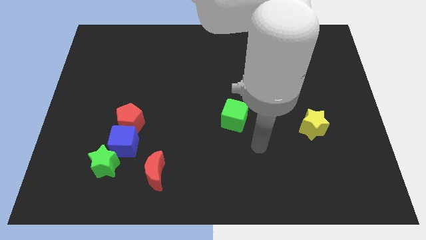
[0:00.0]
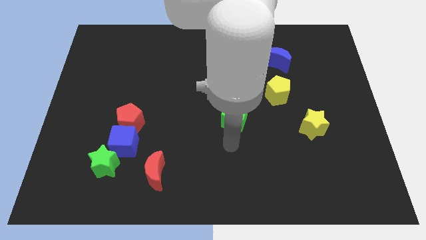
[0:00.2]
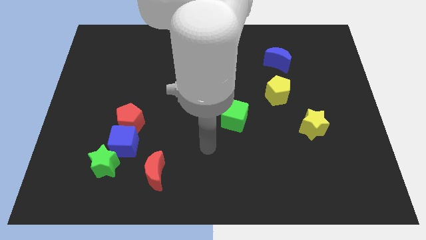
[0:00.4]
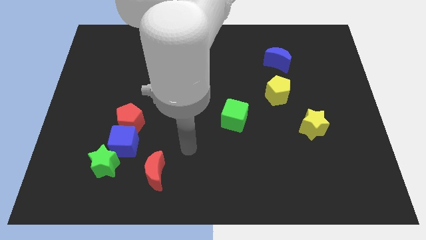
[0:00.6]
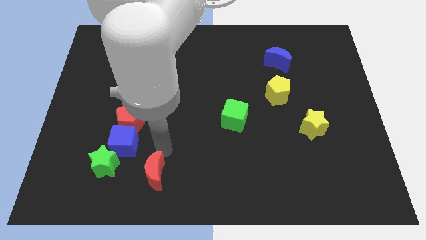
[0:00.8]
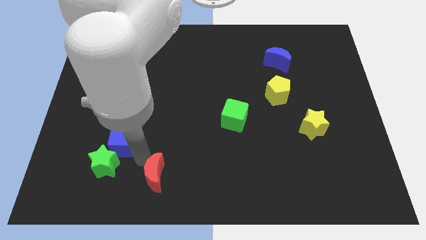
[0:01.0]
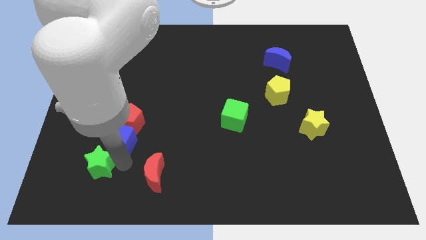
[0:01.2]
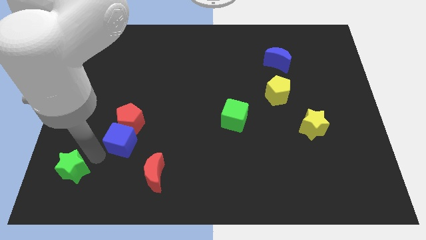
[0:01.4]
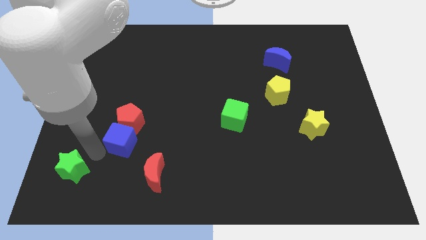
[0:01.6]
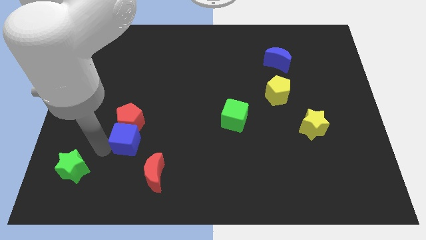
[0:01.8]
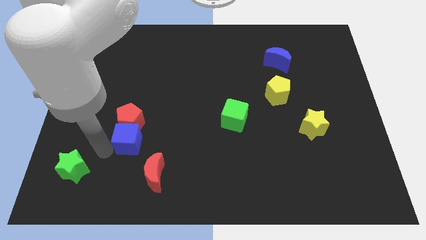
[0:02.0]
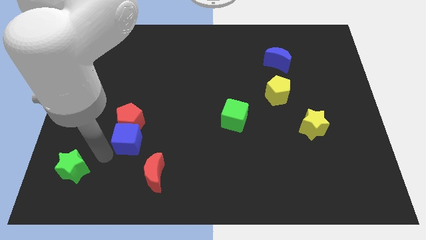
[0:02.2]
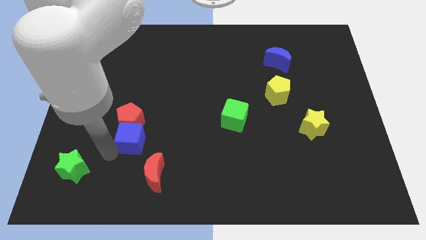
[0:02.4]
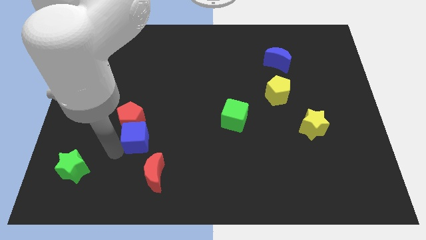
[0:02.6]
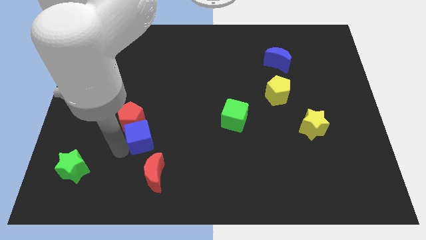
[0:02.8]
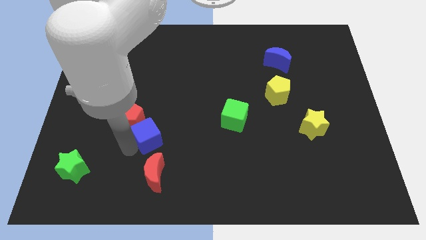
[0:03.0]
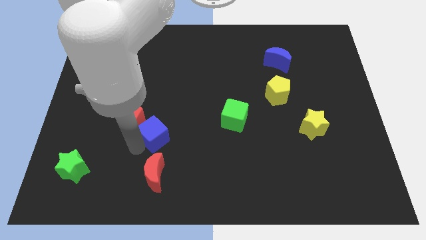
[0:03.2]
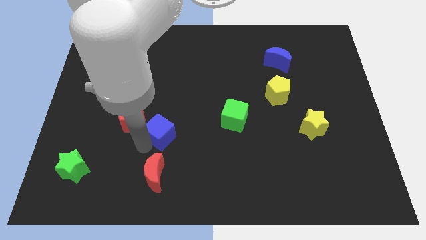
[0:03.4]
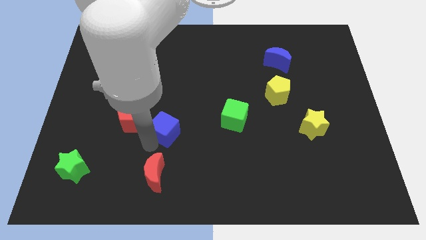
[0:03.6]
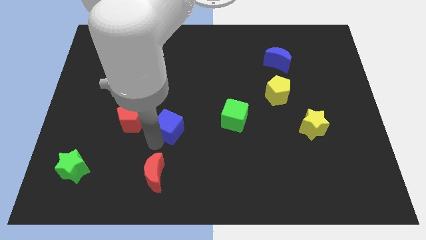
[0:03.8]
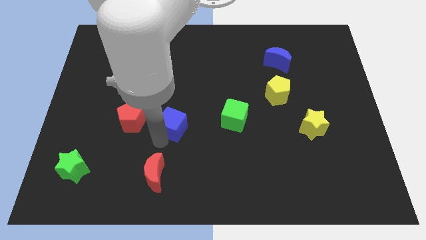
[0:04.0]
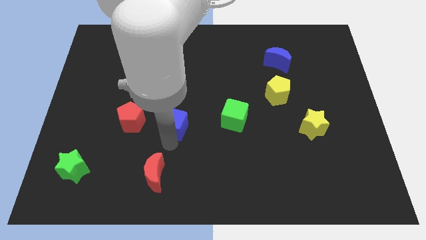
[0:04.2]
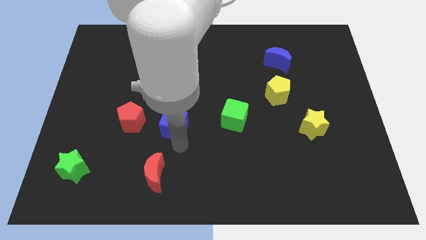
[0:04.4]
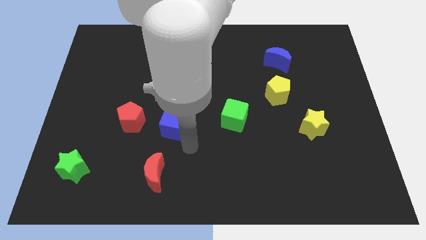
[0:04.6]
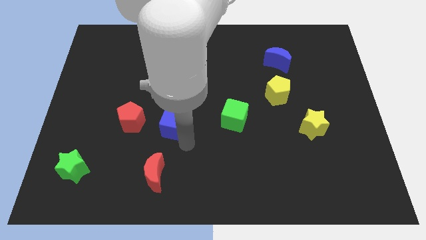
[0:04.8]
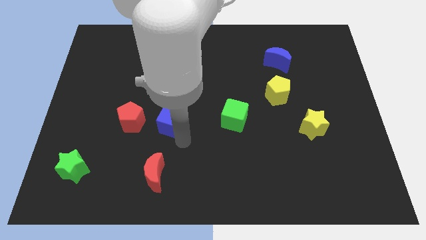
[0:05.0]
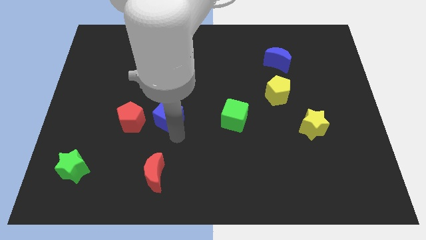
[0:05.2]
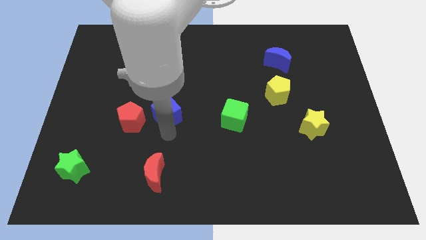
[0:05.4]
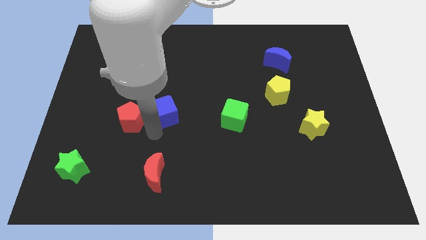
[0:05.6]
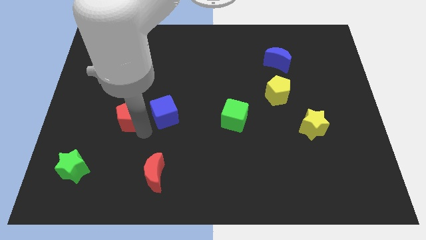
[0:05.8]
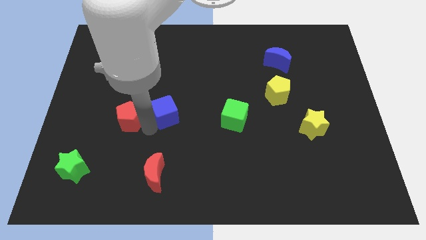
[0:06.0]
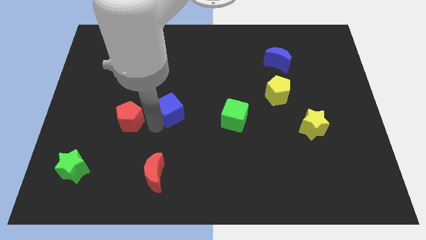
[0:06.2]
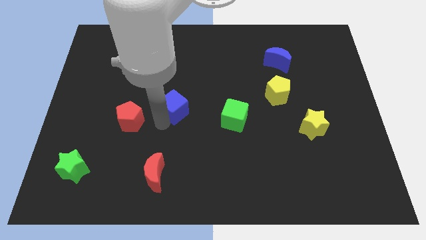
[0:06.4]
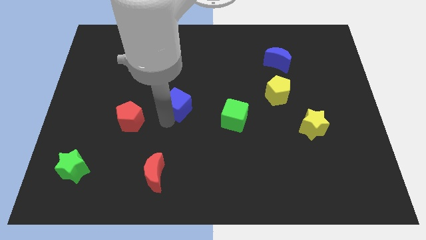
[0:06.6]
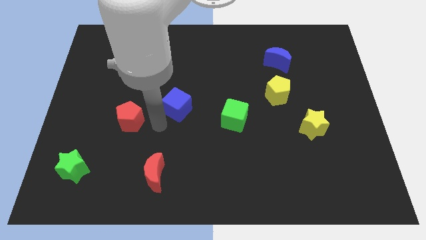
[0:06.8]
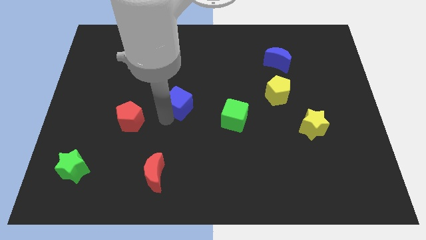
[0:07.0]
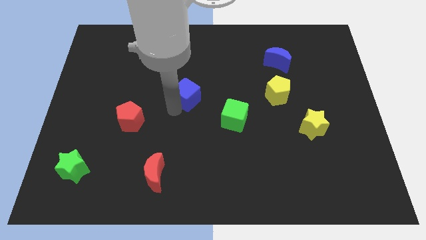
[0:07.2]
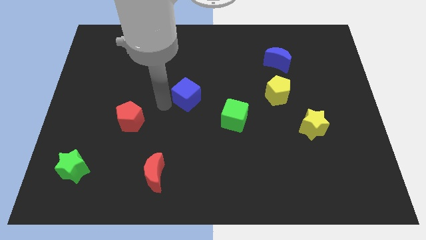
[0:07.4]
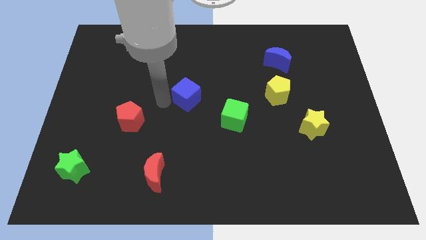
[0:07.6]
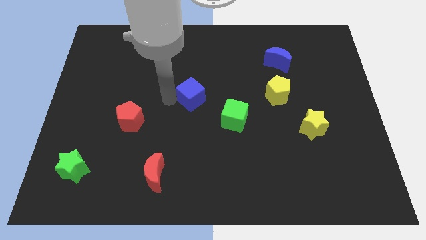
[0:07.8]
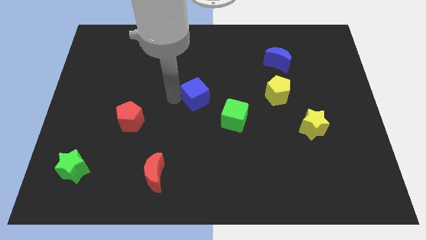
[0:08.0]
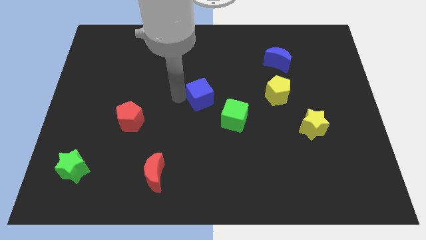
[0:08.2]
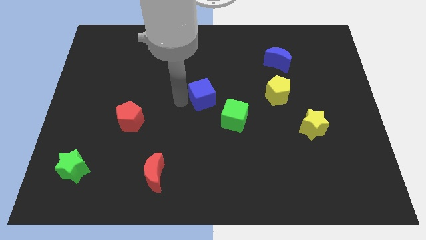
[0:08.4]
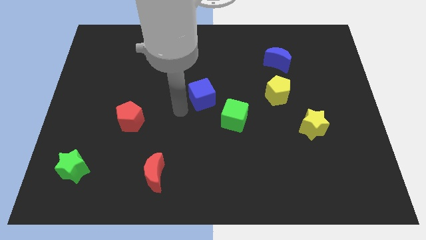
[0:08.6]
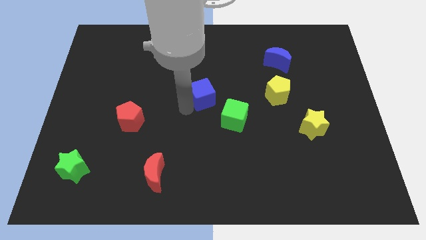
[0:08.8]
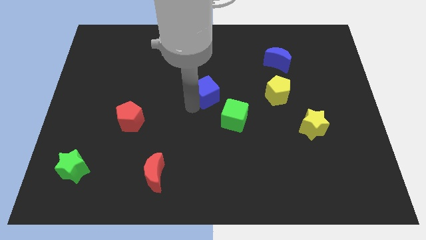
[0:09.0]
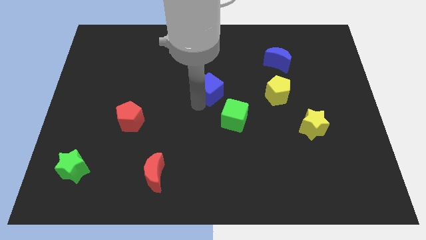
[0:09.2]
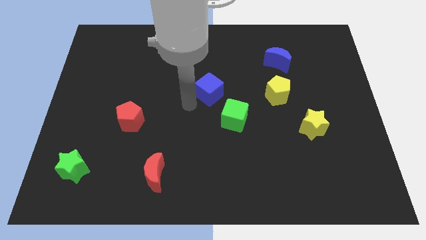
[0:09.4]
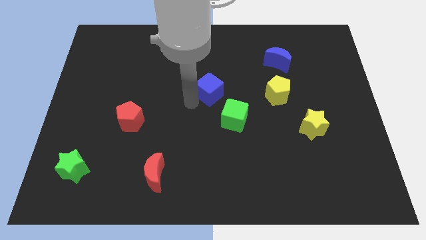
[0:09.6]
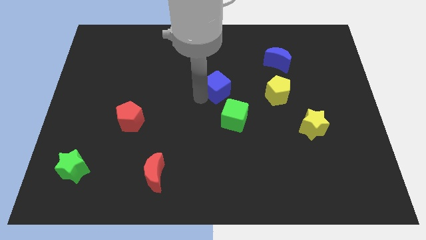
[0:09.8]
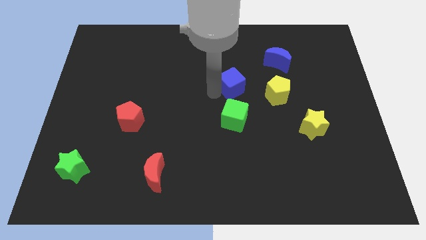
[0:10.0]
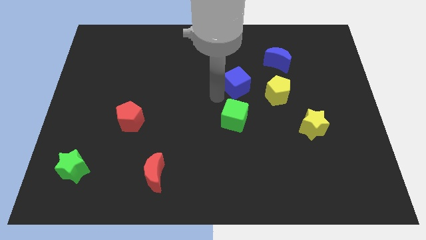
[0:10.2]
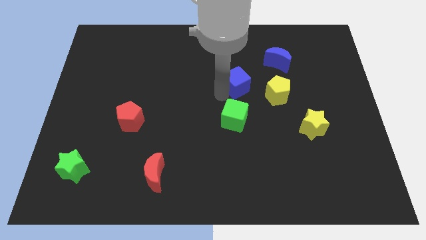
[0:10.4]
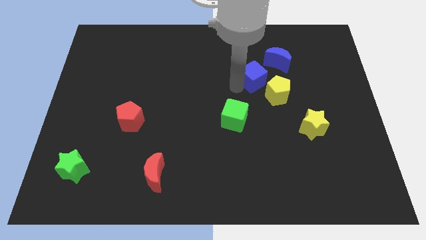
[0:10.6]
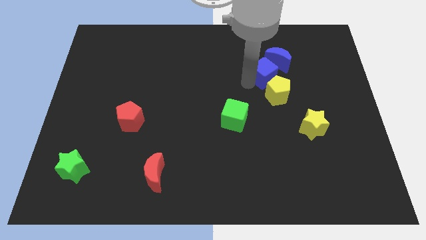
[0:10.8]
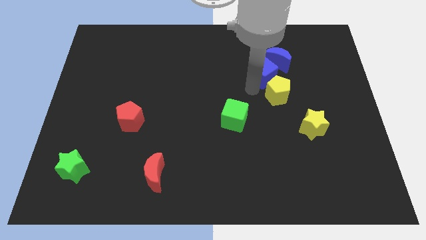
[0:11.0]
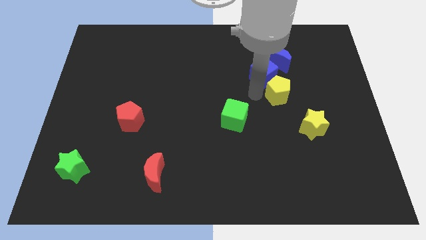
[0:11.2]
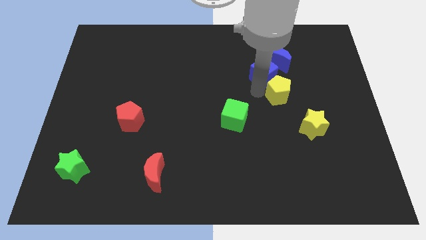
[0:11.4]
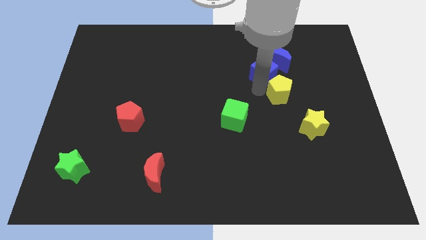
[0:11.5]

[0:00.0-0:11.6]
put the blue cube towards the blue moon

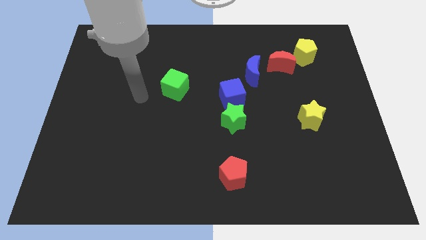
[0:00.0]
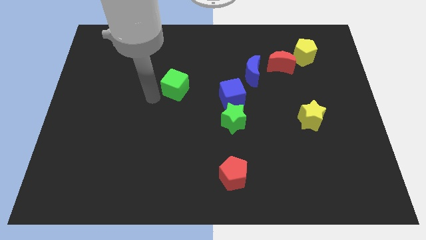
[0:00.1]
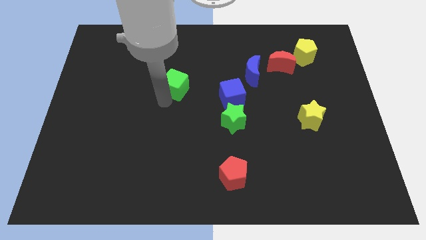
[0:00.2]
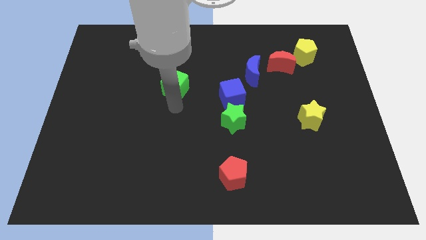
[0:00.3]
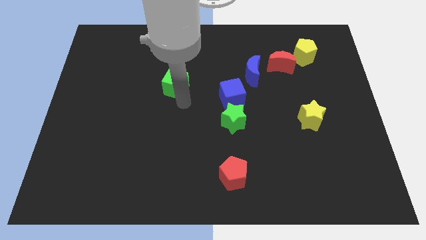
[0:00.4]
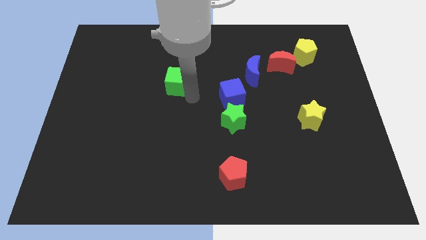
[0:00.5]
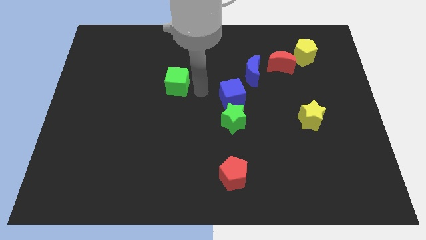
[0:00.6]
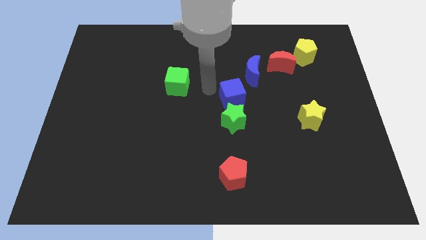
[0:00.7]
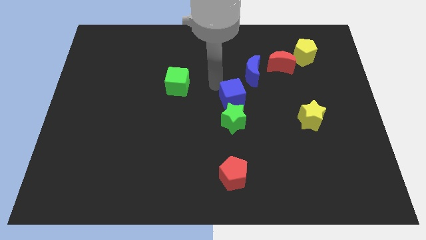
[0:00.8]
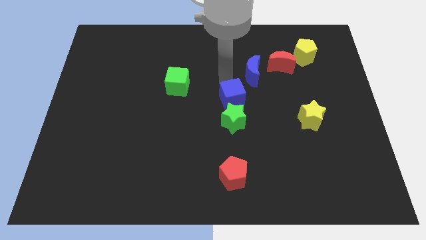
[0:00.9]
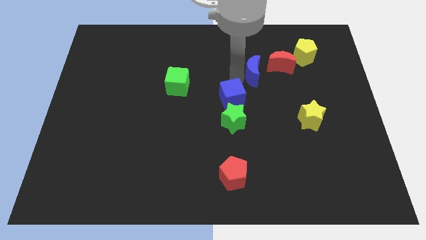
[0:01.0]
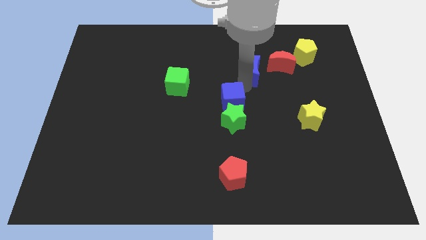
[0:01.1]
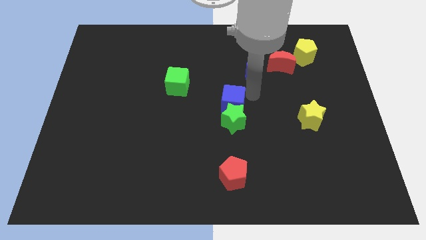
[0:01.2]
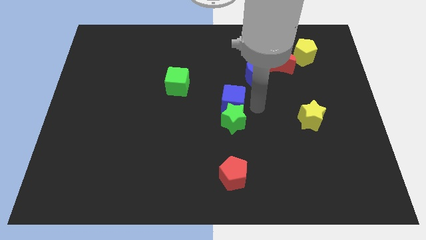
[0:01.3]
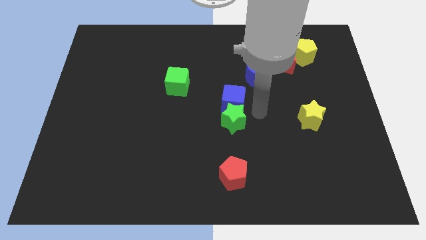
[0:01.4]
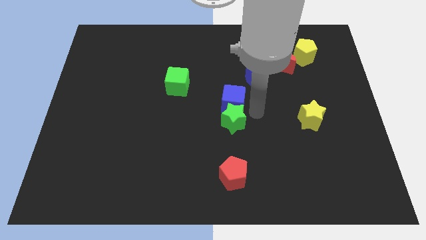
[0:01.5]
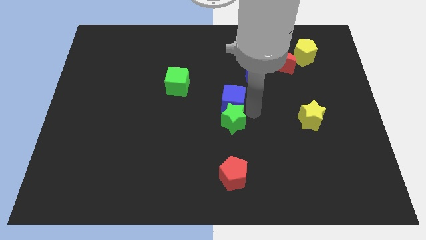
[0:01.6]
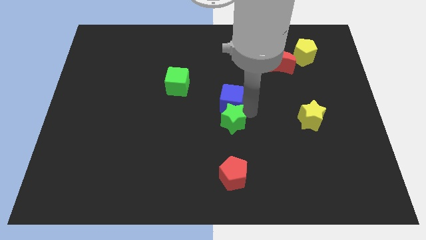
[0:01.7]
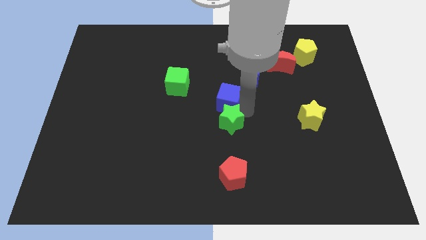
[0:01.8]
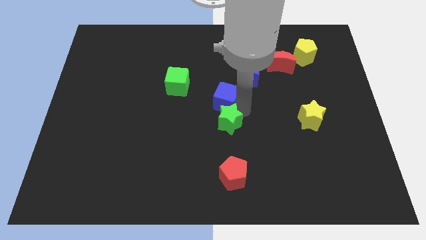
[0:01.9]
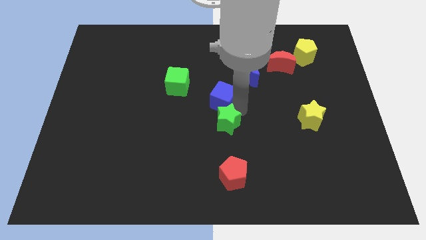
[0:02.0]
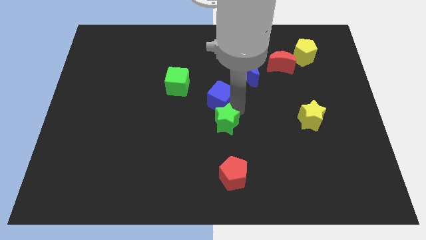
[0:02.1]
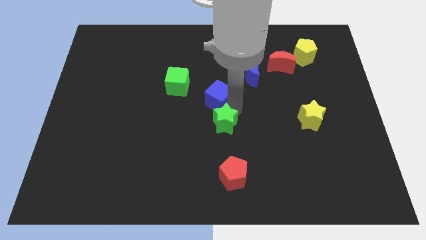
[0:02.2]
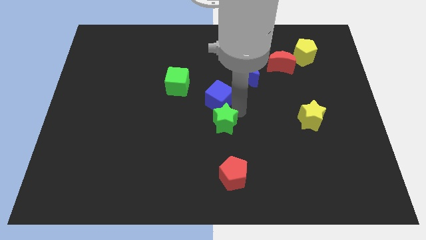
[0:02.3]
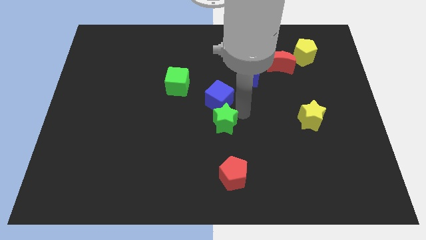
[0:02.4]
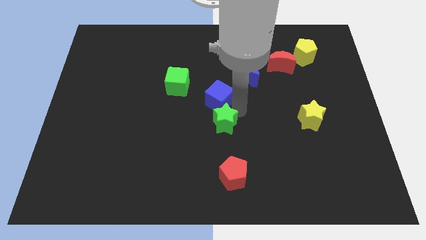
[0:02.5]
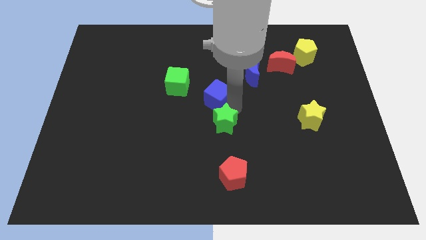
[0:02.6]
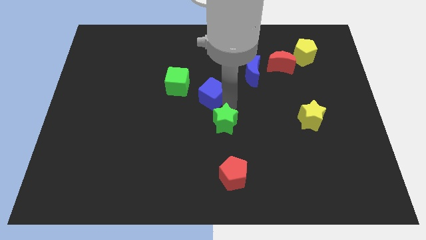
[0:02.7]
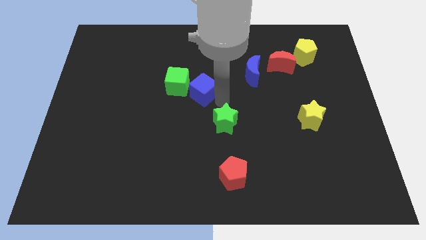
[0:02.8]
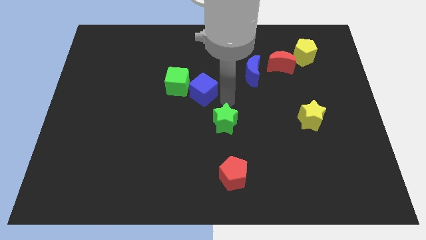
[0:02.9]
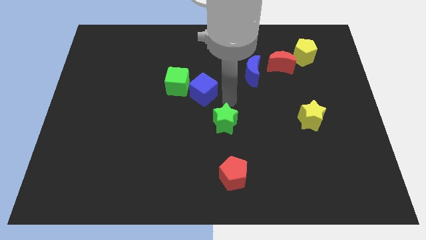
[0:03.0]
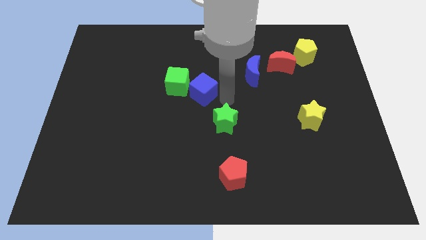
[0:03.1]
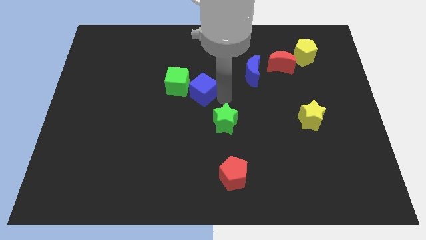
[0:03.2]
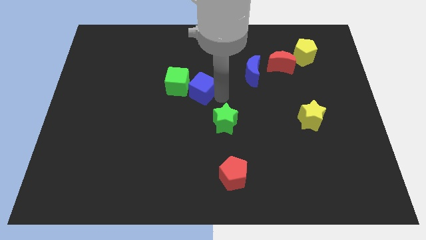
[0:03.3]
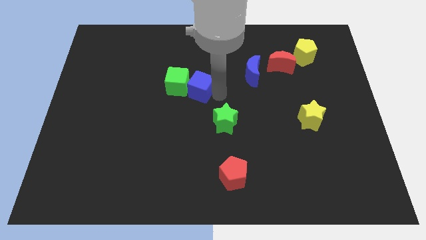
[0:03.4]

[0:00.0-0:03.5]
put the blue cube close to the green cube
